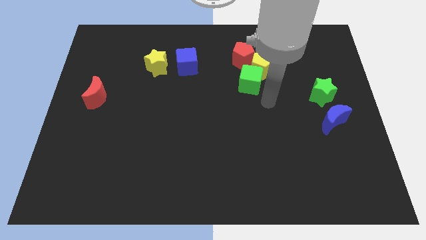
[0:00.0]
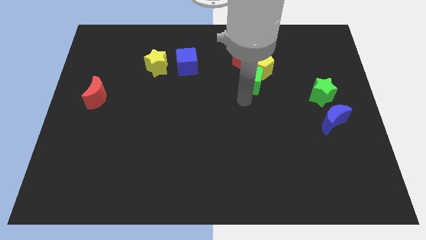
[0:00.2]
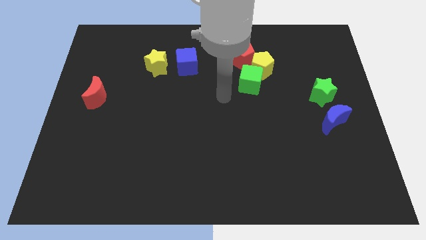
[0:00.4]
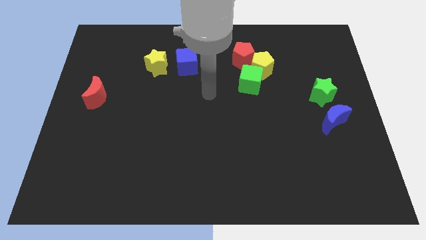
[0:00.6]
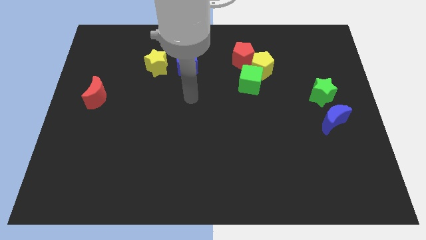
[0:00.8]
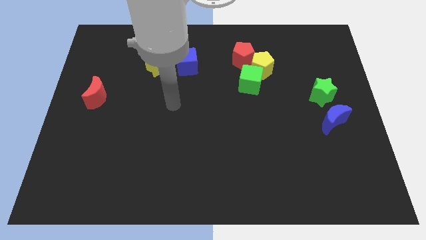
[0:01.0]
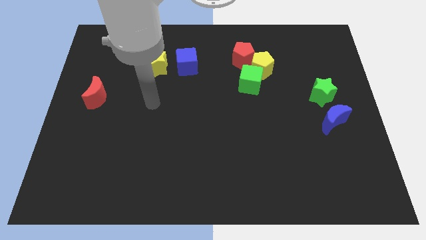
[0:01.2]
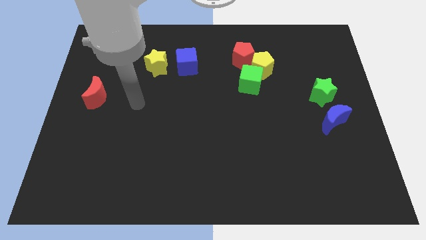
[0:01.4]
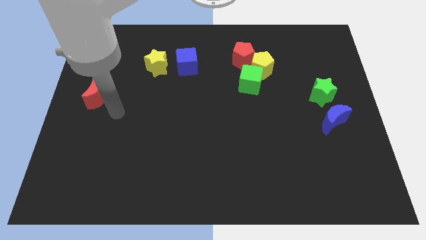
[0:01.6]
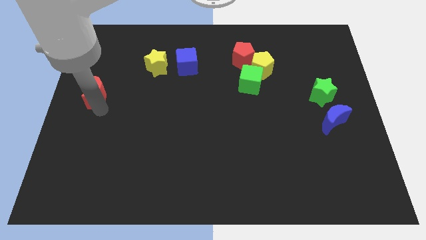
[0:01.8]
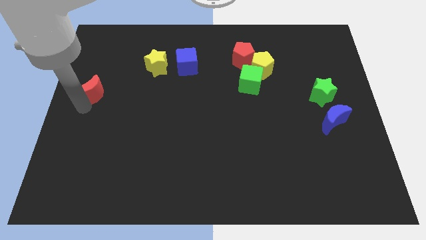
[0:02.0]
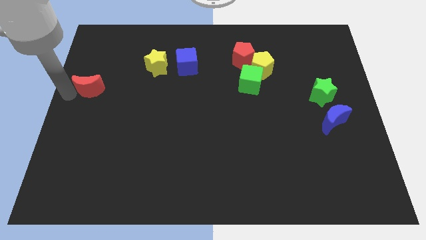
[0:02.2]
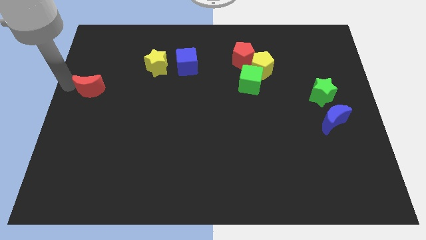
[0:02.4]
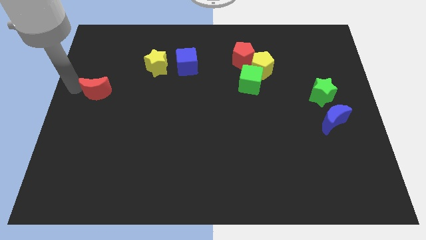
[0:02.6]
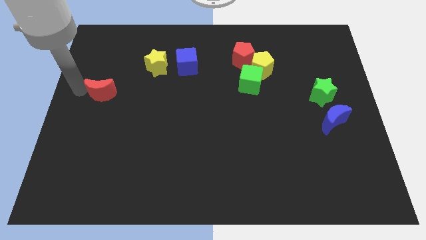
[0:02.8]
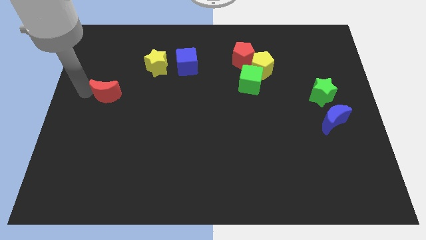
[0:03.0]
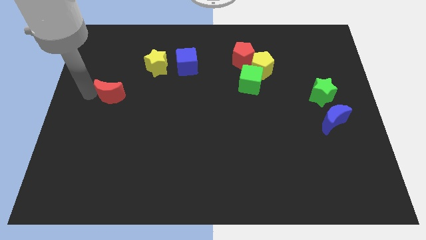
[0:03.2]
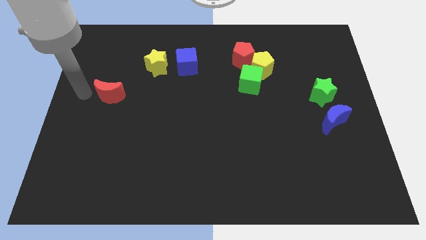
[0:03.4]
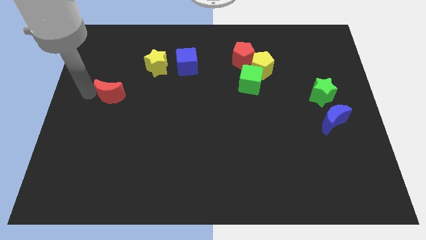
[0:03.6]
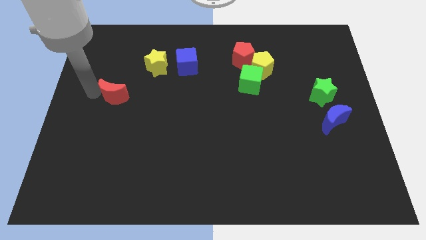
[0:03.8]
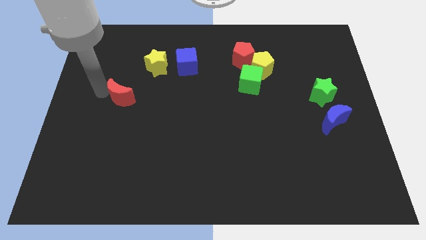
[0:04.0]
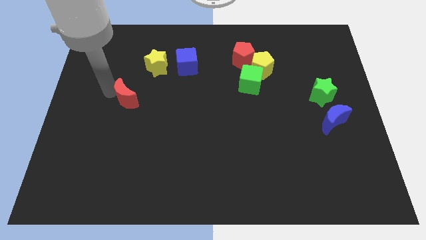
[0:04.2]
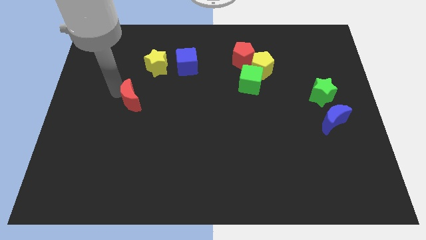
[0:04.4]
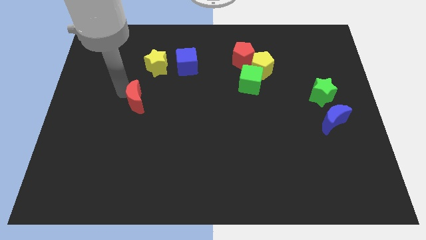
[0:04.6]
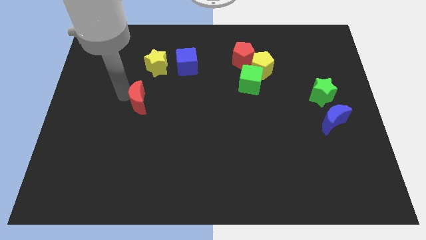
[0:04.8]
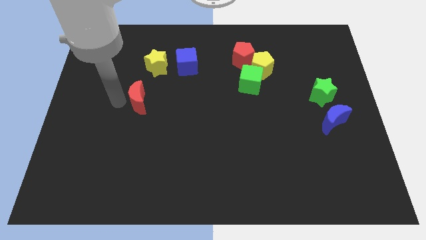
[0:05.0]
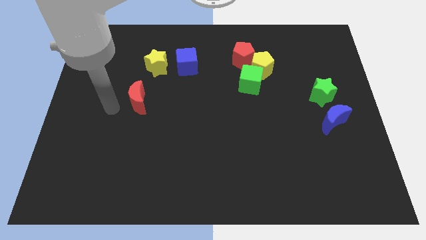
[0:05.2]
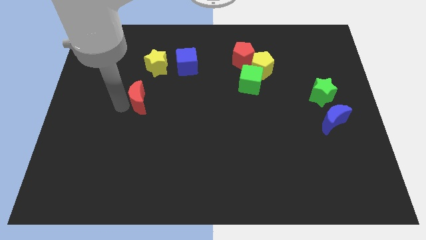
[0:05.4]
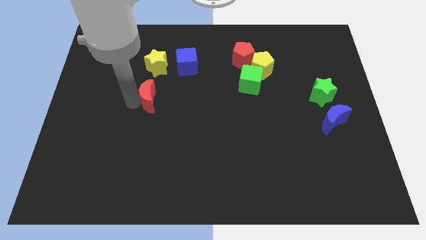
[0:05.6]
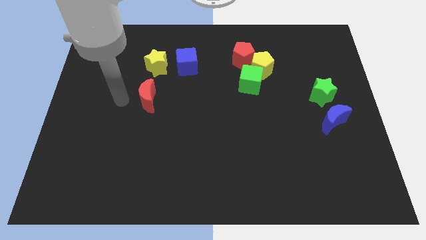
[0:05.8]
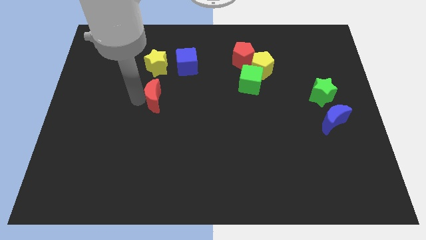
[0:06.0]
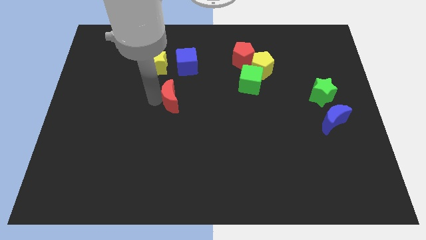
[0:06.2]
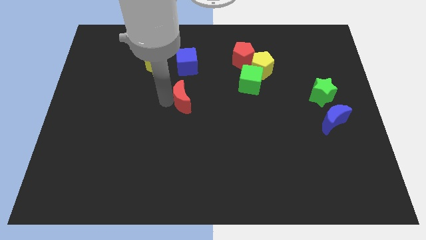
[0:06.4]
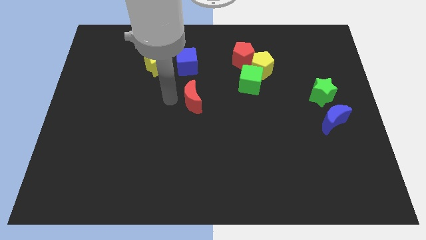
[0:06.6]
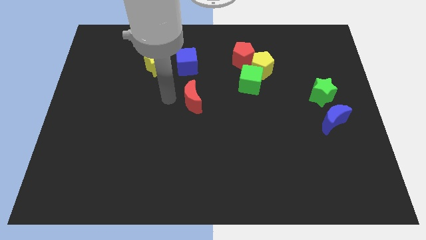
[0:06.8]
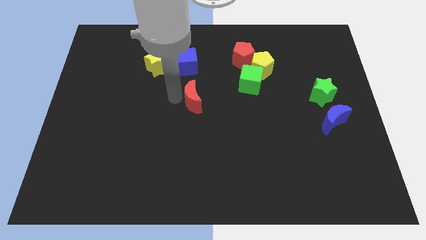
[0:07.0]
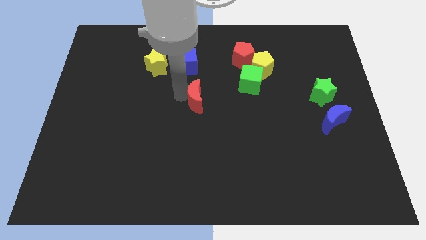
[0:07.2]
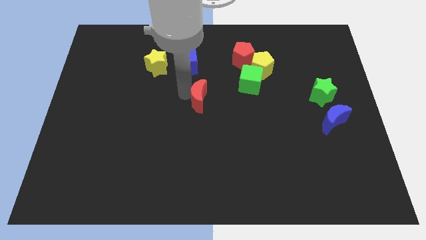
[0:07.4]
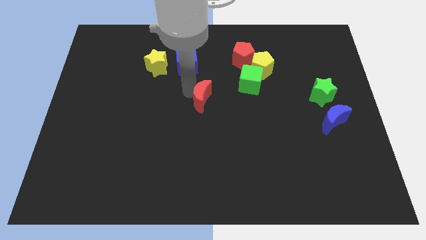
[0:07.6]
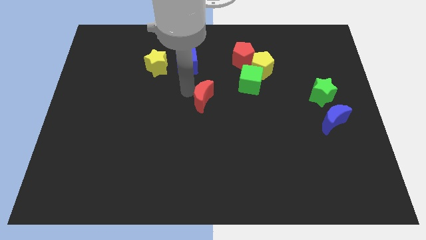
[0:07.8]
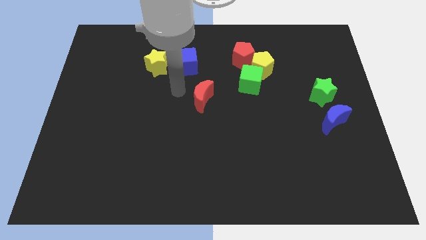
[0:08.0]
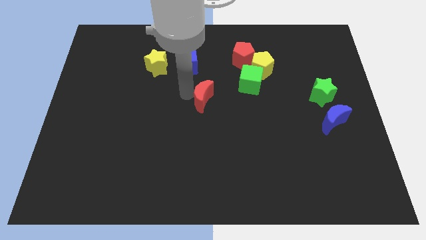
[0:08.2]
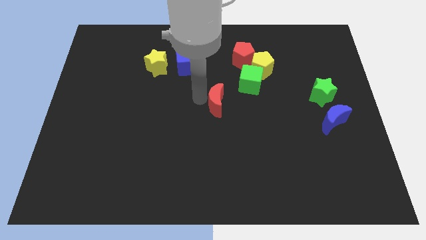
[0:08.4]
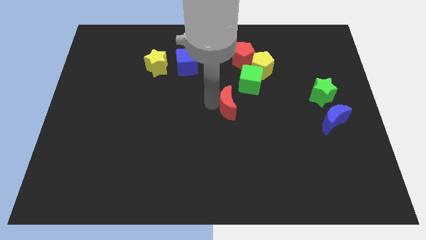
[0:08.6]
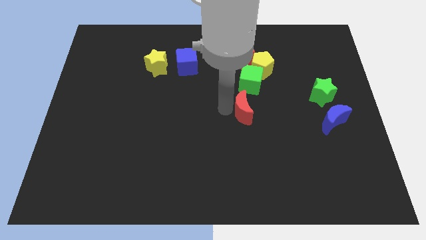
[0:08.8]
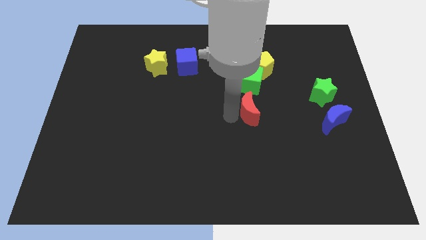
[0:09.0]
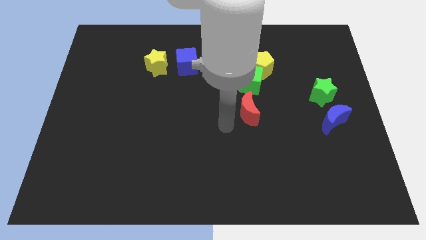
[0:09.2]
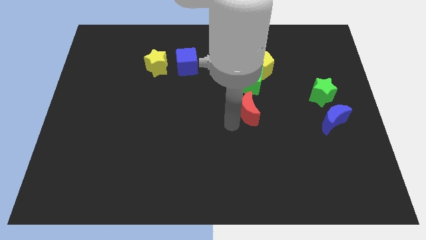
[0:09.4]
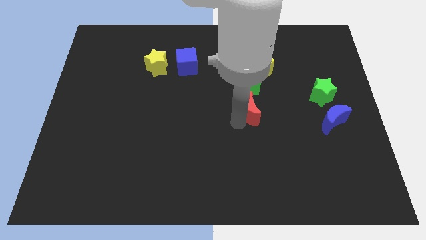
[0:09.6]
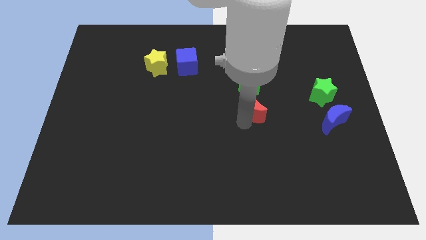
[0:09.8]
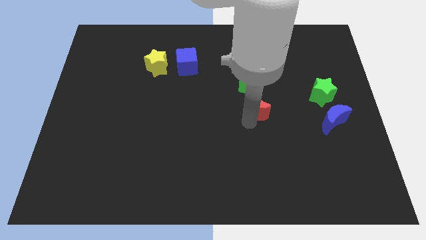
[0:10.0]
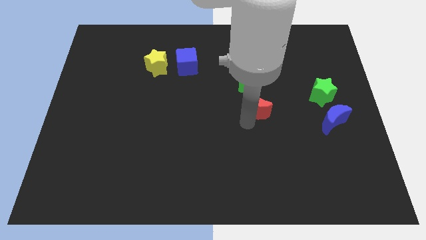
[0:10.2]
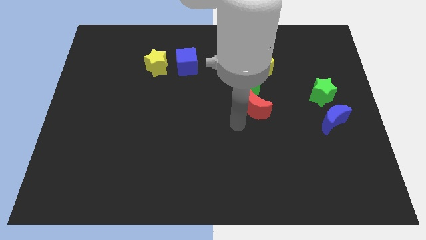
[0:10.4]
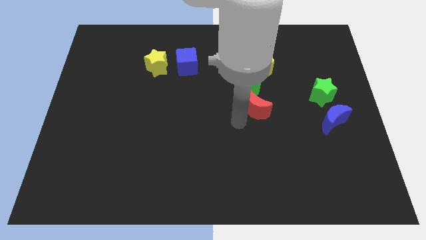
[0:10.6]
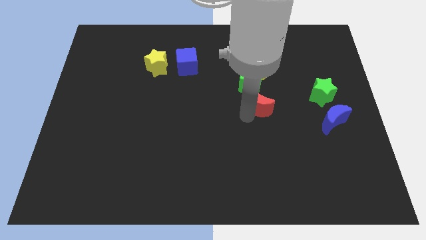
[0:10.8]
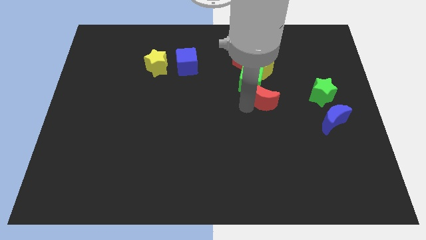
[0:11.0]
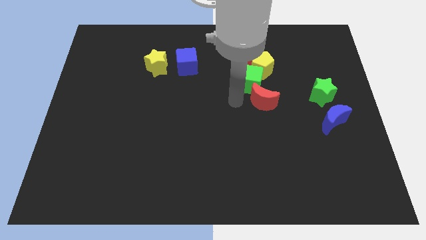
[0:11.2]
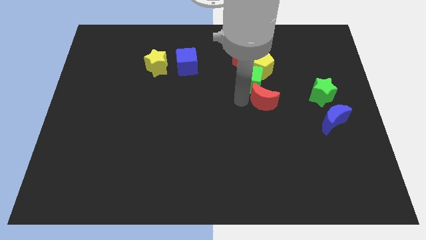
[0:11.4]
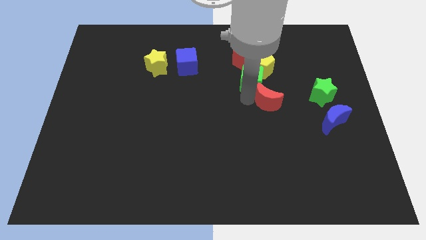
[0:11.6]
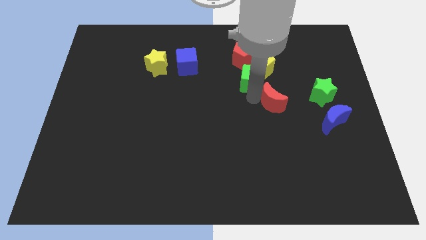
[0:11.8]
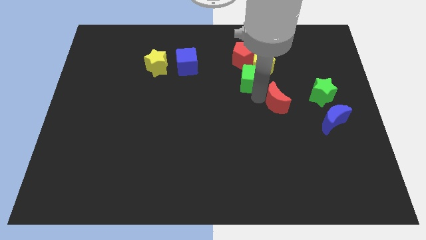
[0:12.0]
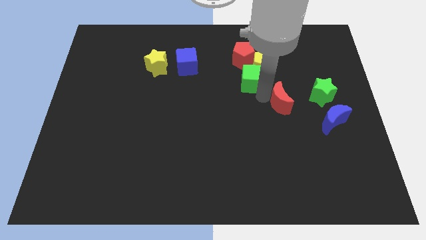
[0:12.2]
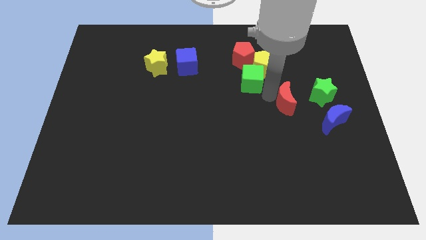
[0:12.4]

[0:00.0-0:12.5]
slide the red moon to the top left of the blue moon
